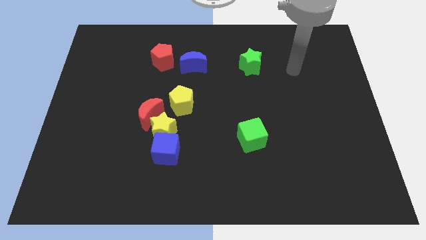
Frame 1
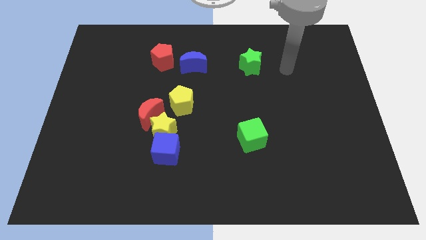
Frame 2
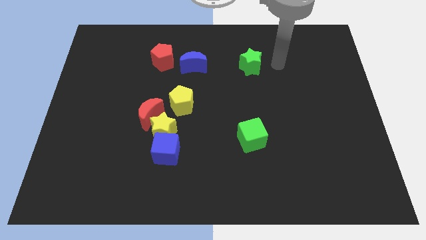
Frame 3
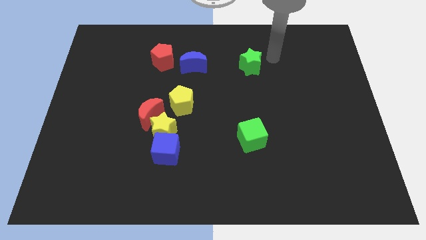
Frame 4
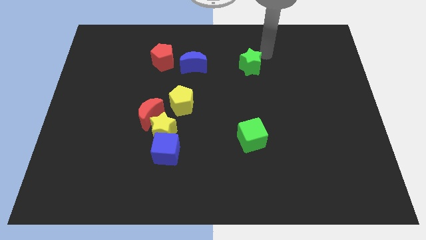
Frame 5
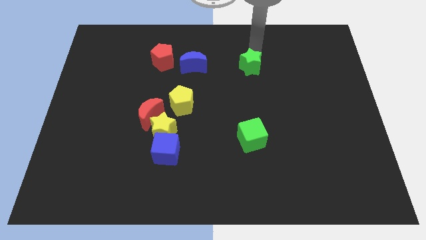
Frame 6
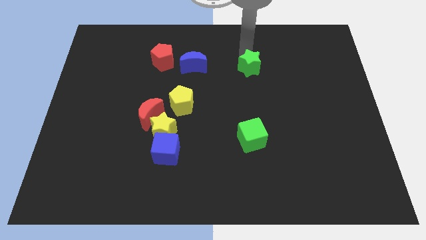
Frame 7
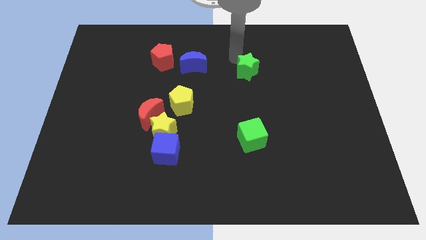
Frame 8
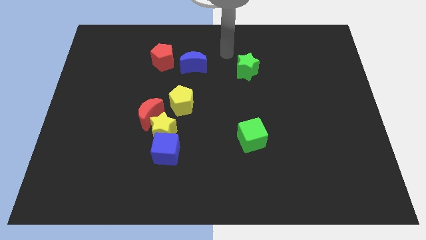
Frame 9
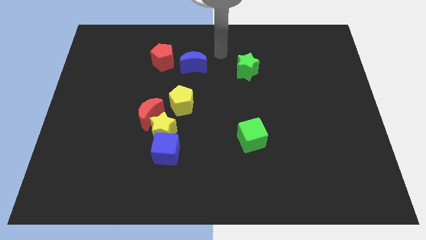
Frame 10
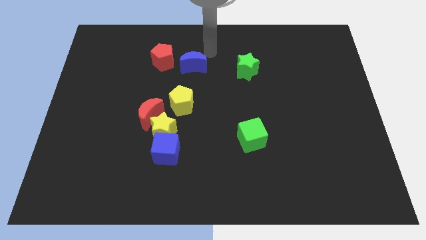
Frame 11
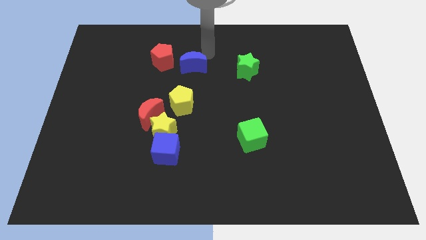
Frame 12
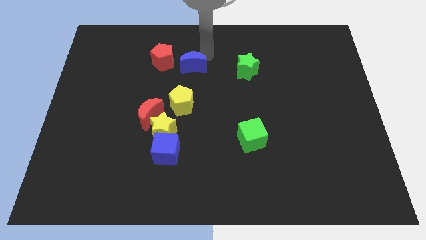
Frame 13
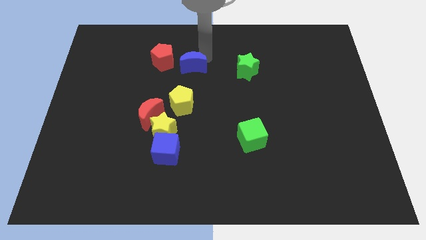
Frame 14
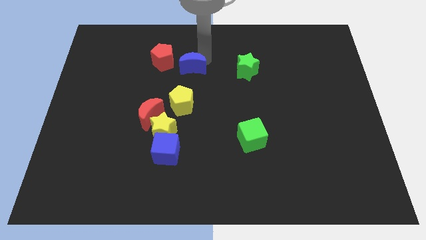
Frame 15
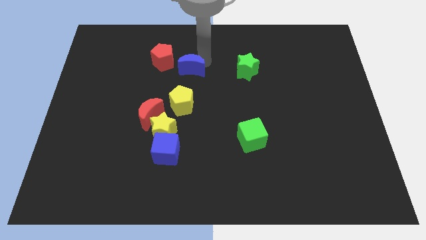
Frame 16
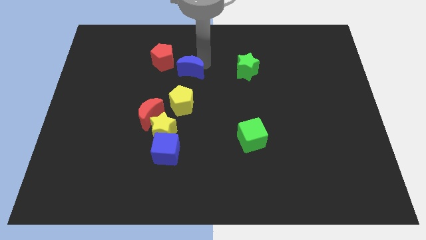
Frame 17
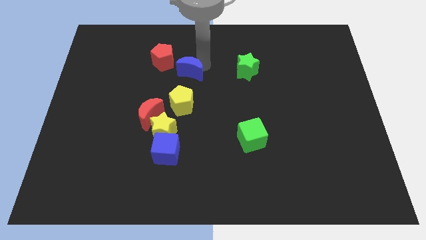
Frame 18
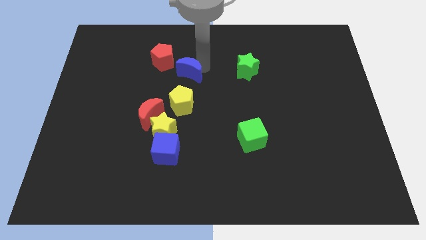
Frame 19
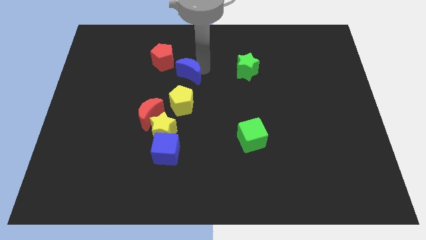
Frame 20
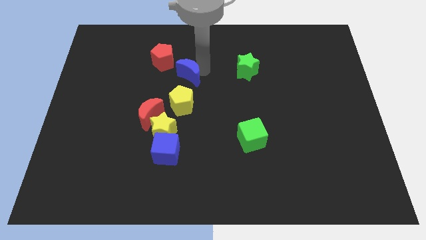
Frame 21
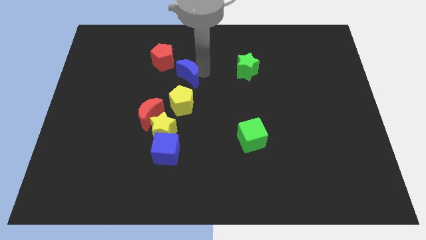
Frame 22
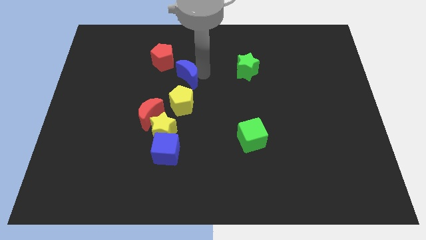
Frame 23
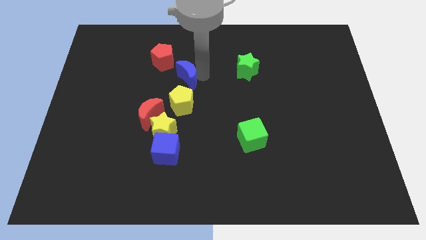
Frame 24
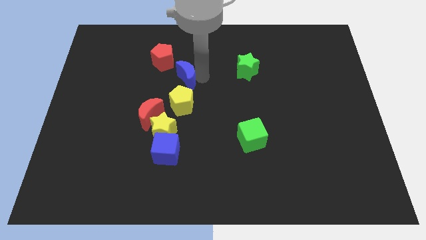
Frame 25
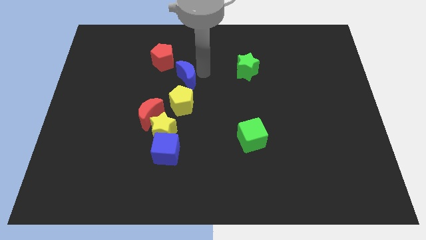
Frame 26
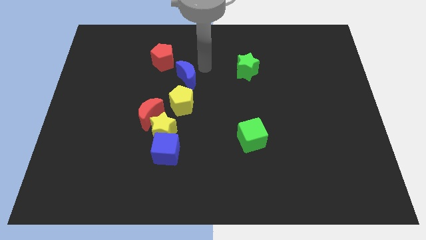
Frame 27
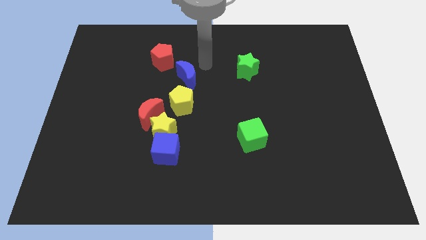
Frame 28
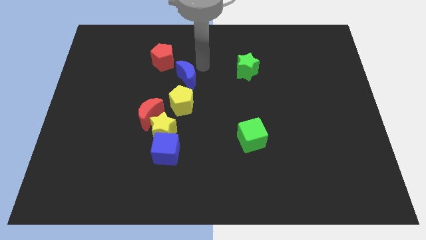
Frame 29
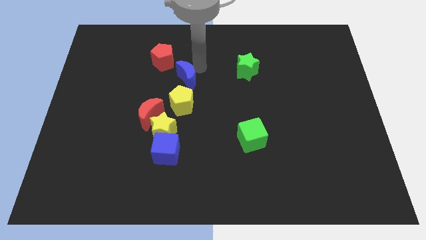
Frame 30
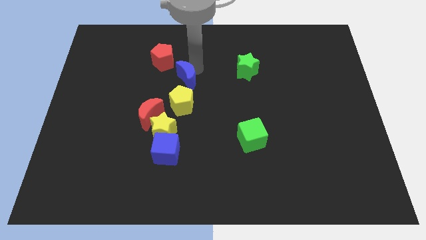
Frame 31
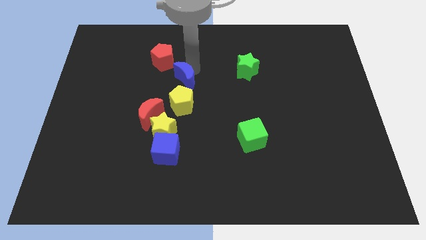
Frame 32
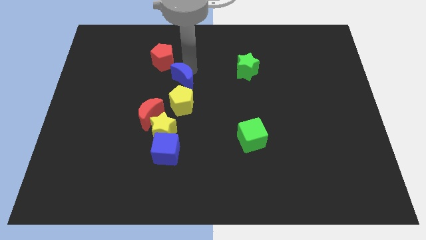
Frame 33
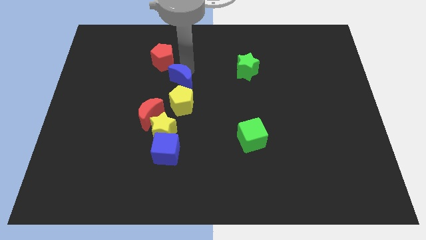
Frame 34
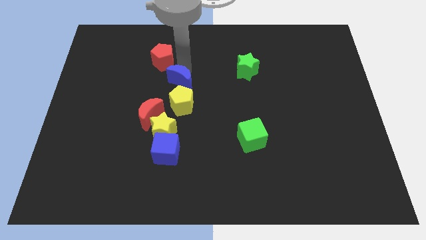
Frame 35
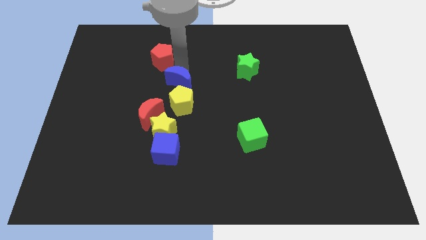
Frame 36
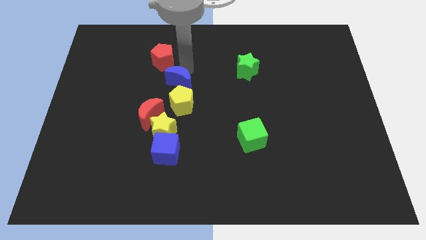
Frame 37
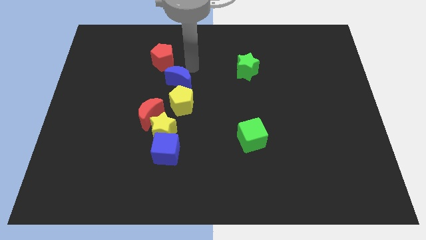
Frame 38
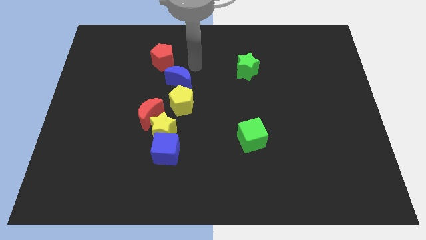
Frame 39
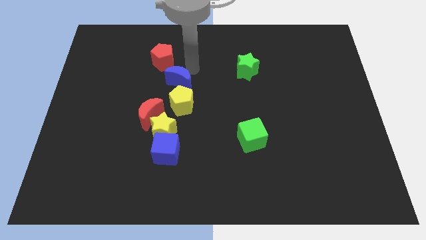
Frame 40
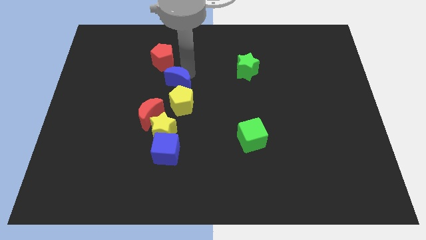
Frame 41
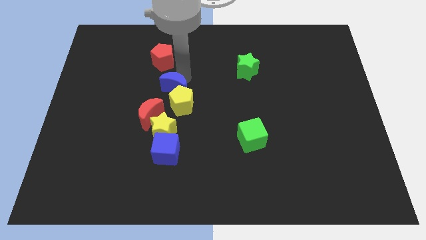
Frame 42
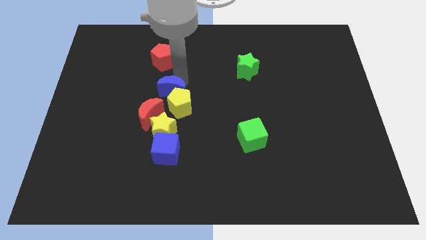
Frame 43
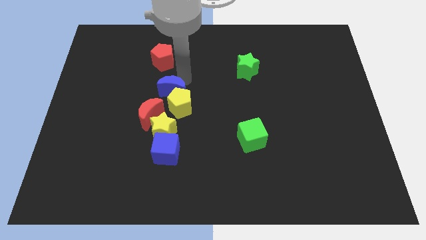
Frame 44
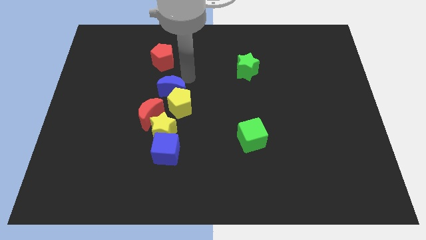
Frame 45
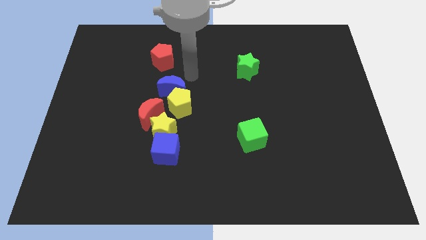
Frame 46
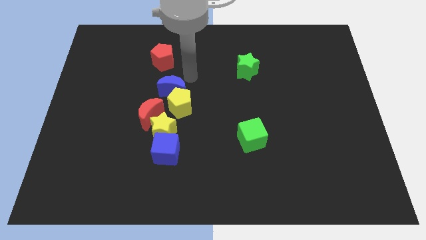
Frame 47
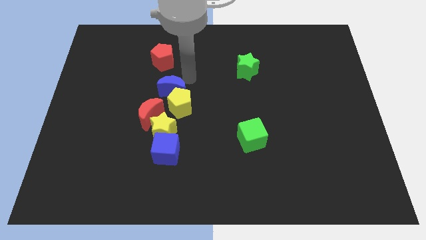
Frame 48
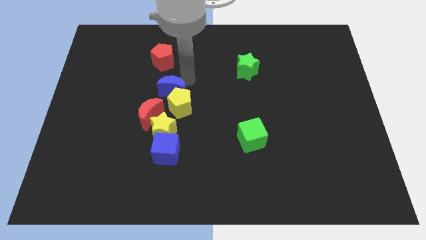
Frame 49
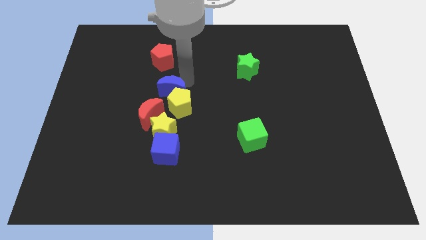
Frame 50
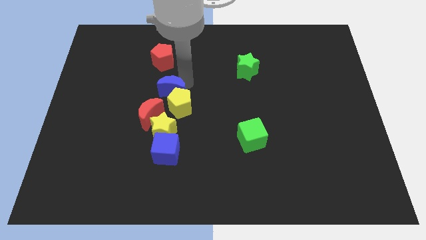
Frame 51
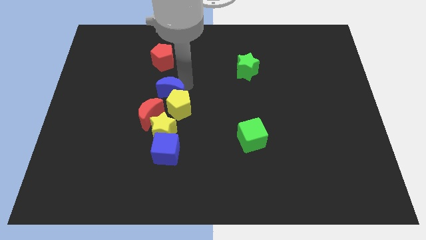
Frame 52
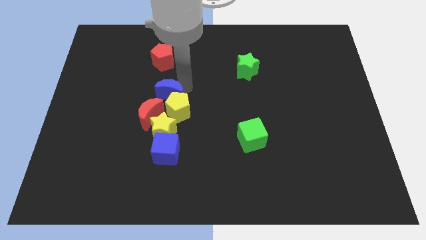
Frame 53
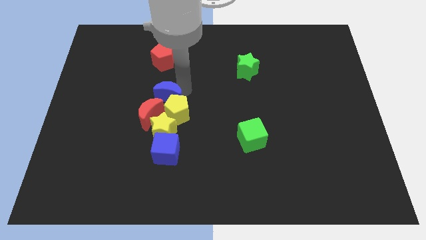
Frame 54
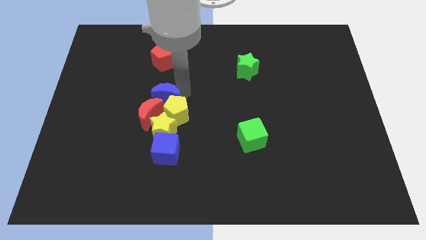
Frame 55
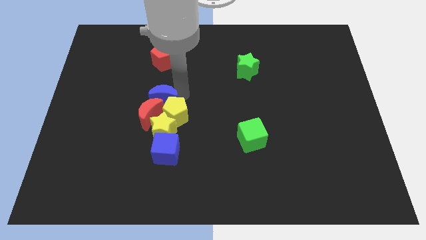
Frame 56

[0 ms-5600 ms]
put the blue moon close to the red moon

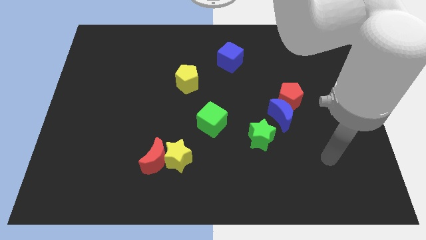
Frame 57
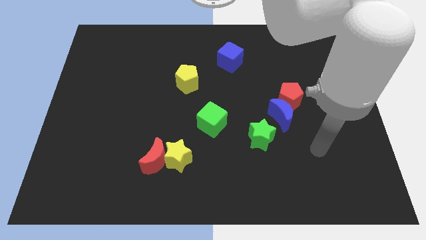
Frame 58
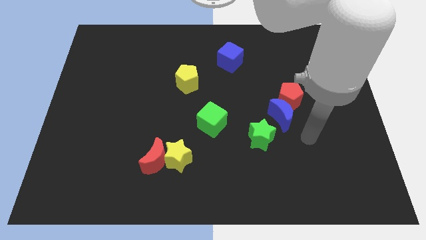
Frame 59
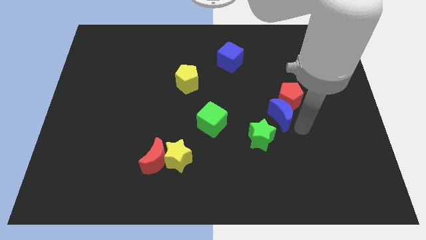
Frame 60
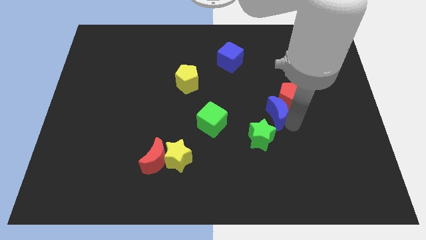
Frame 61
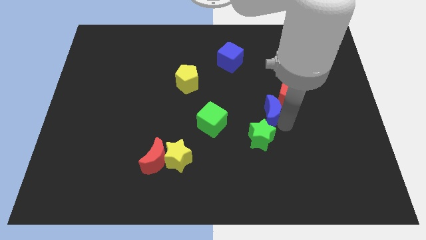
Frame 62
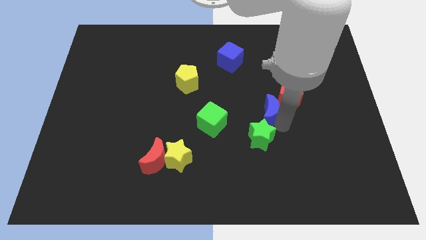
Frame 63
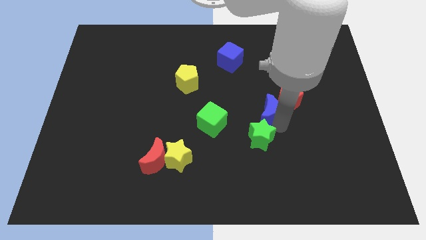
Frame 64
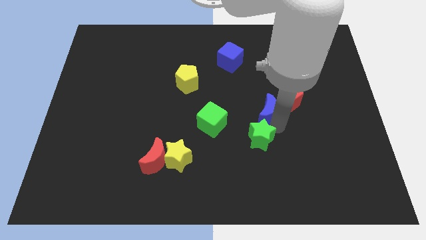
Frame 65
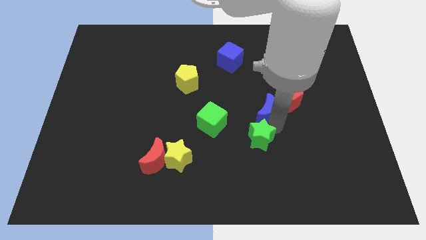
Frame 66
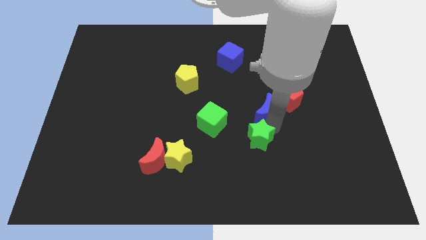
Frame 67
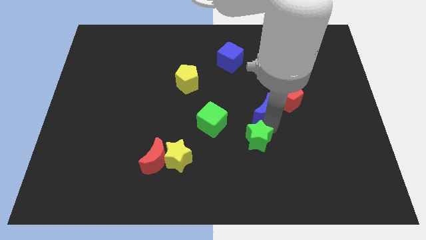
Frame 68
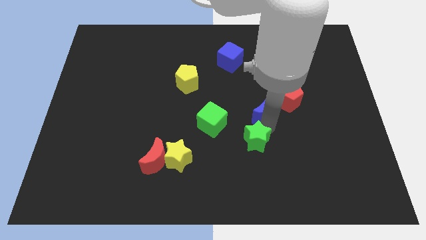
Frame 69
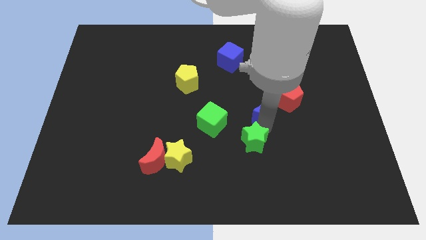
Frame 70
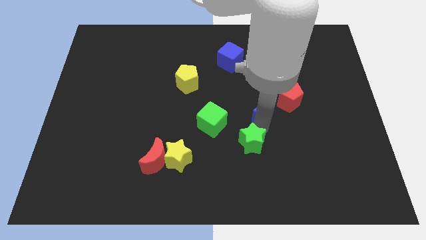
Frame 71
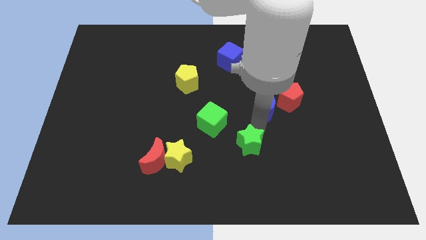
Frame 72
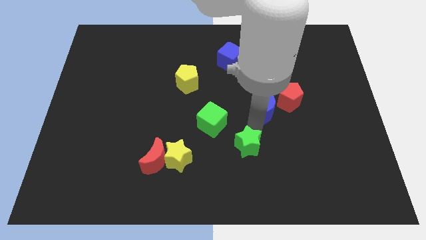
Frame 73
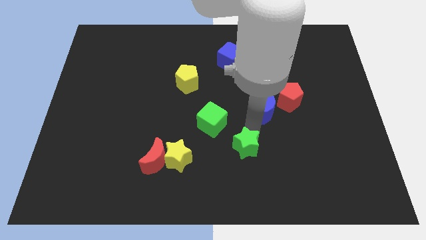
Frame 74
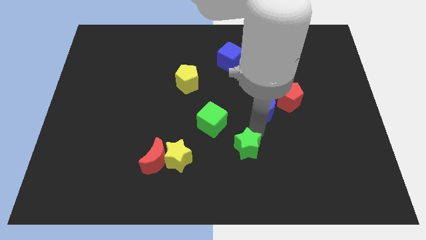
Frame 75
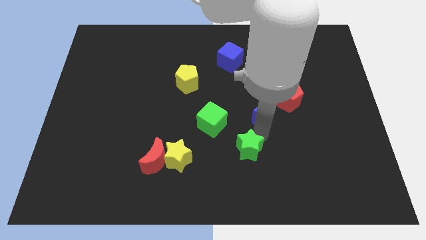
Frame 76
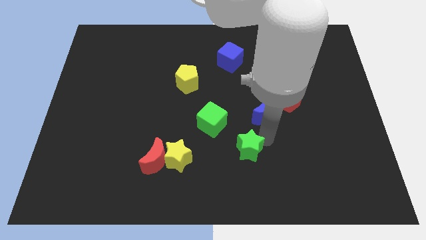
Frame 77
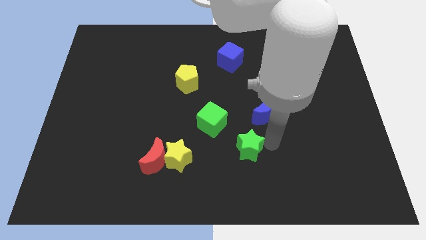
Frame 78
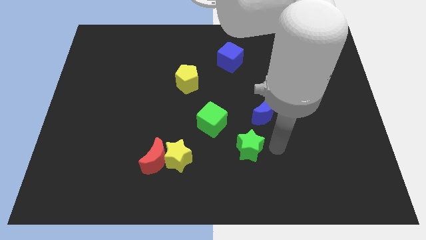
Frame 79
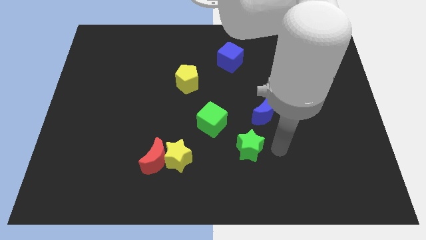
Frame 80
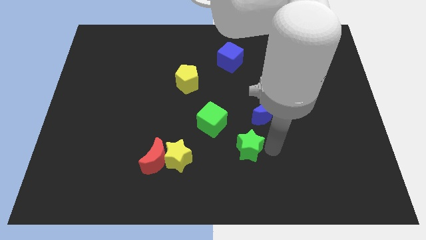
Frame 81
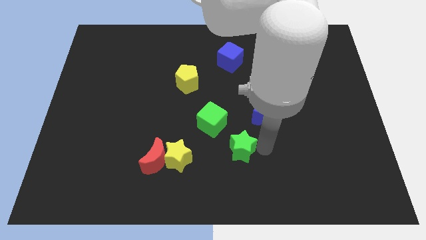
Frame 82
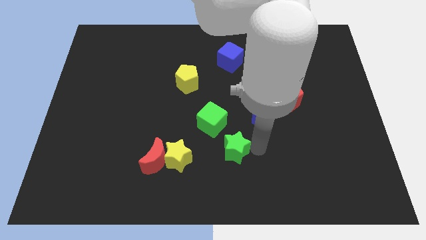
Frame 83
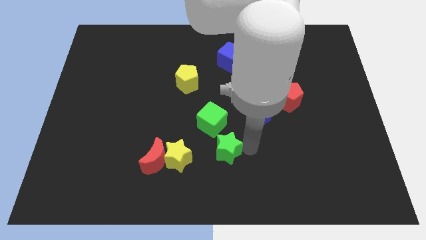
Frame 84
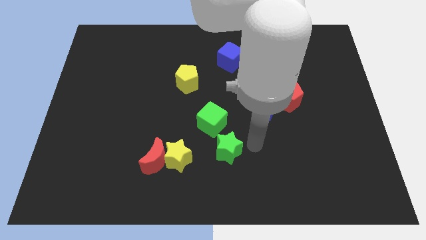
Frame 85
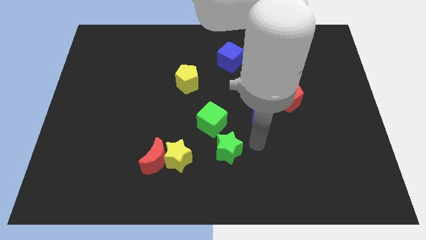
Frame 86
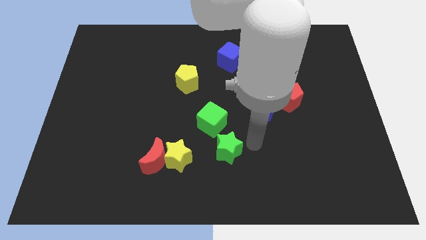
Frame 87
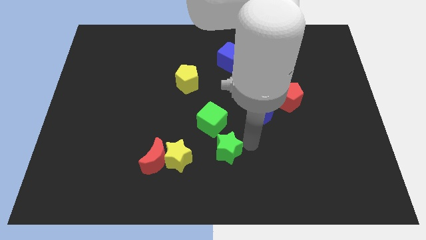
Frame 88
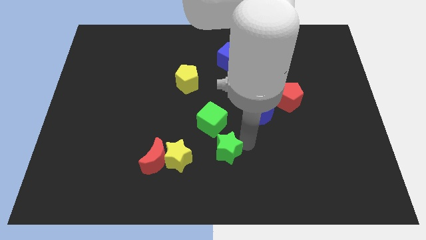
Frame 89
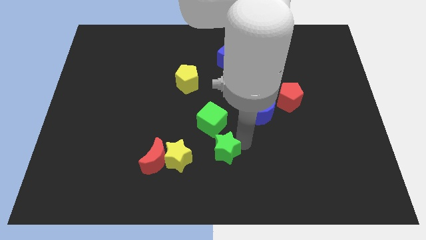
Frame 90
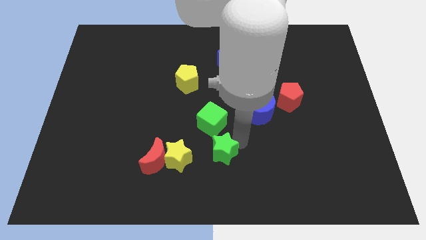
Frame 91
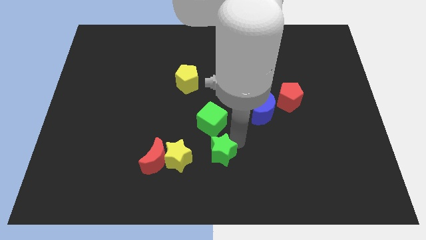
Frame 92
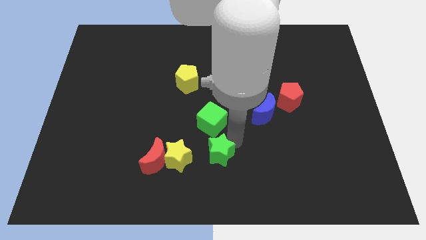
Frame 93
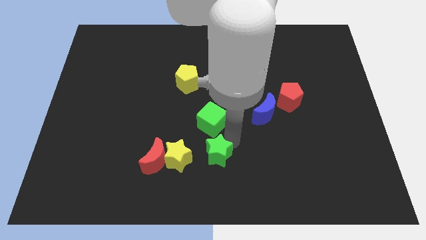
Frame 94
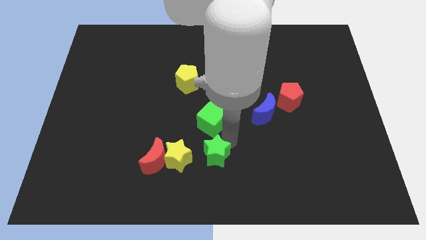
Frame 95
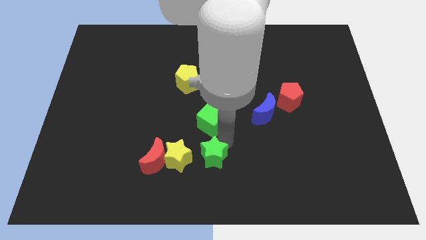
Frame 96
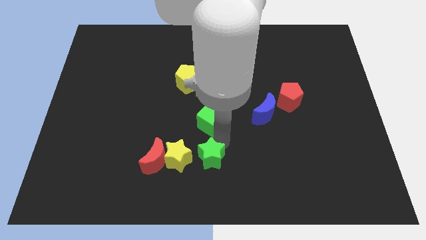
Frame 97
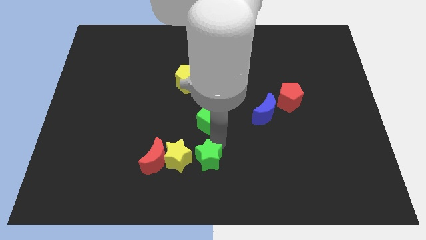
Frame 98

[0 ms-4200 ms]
put the green star to the yellow star
